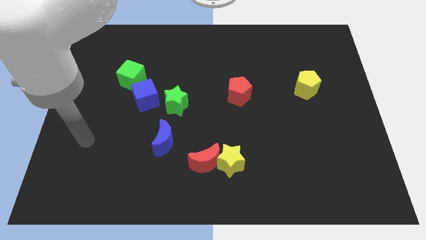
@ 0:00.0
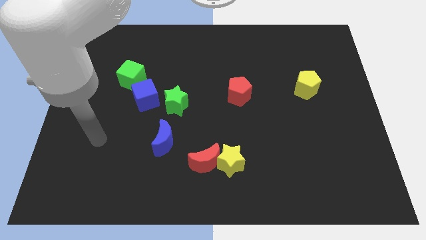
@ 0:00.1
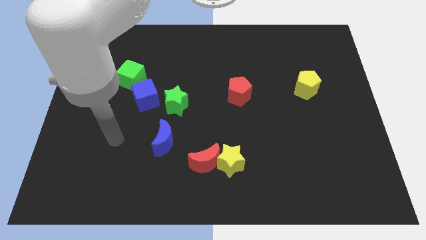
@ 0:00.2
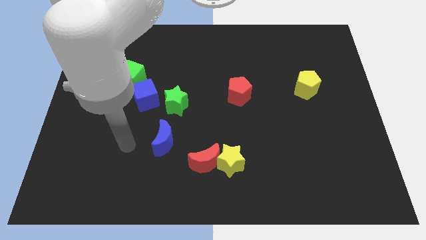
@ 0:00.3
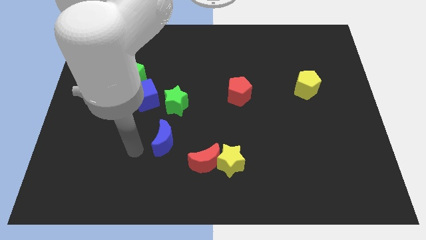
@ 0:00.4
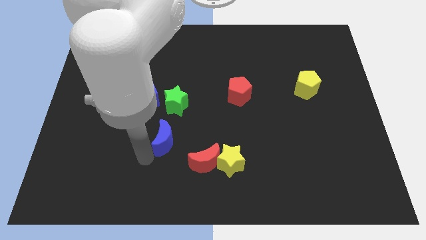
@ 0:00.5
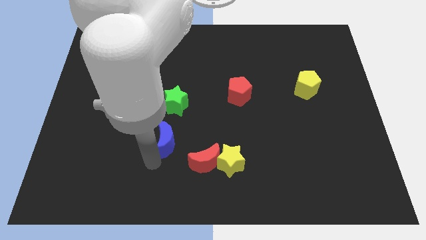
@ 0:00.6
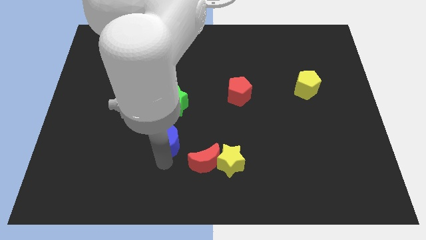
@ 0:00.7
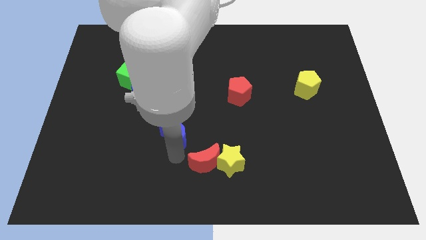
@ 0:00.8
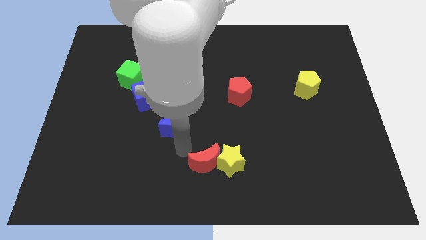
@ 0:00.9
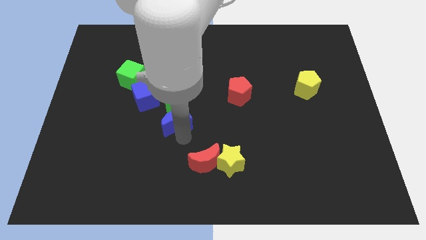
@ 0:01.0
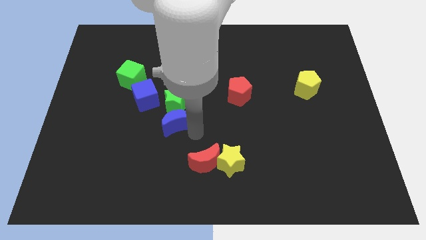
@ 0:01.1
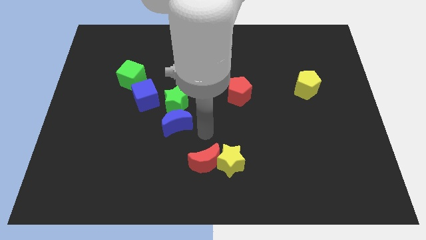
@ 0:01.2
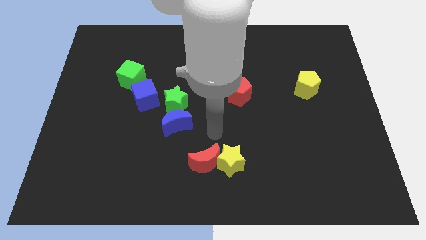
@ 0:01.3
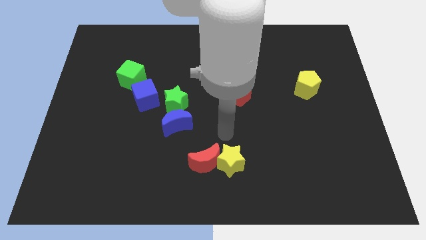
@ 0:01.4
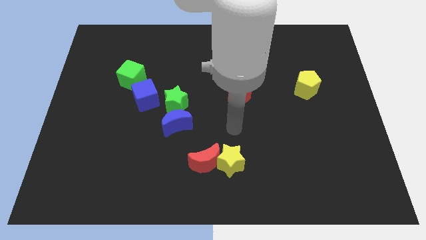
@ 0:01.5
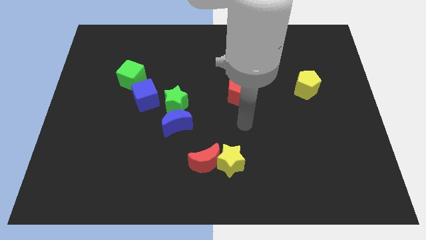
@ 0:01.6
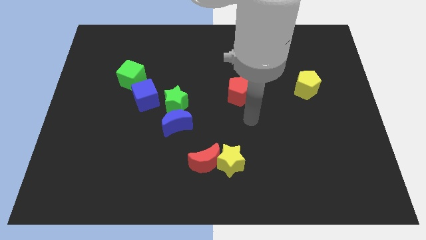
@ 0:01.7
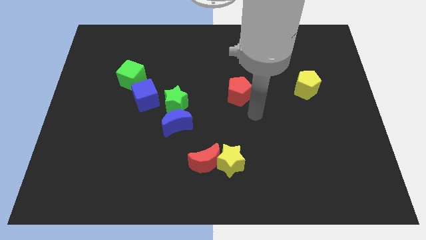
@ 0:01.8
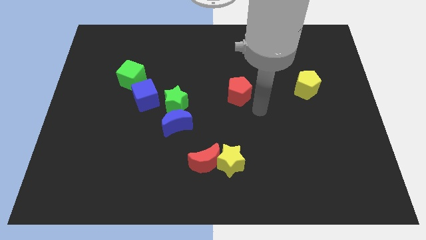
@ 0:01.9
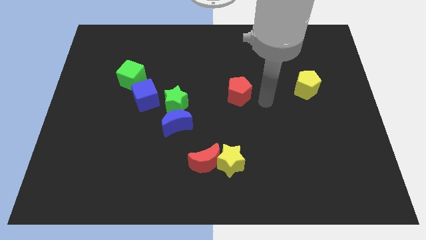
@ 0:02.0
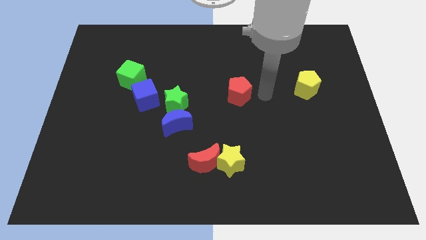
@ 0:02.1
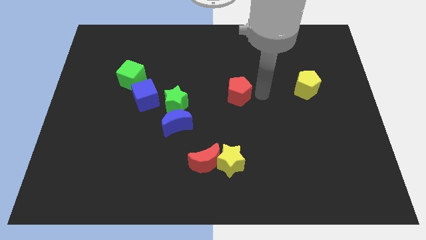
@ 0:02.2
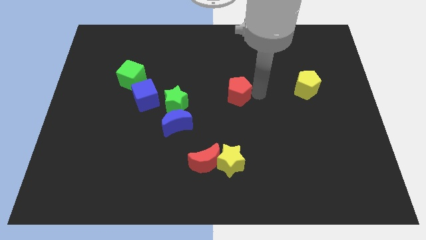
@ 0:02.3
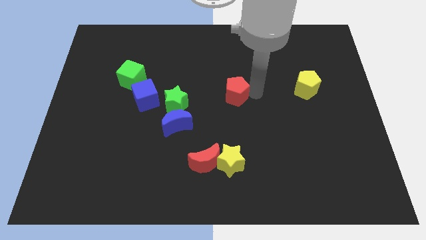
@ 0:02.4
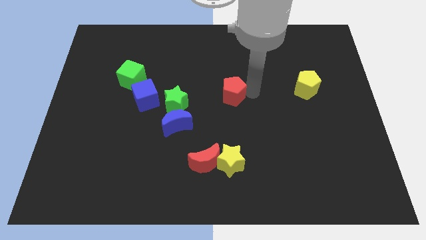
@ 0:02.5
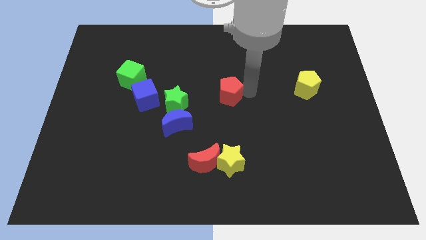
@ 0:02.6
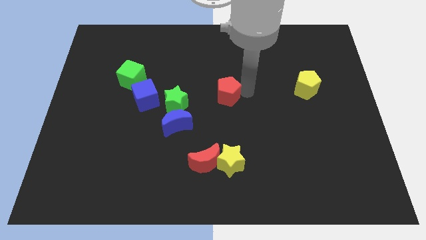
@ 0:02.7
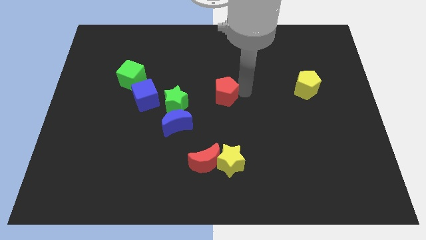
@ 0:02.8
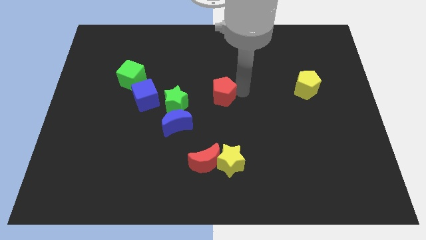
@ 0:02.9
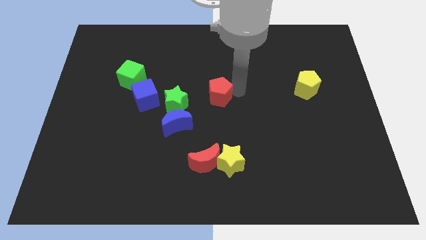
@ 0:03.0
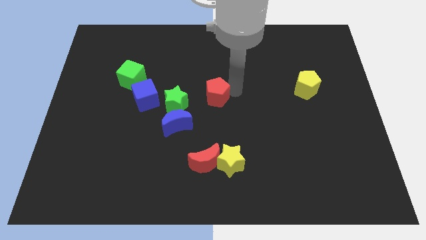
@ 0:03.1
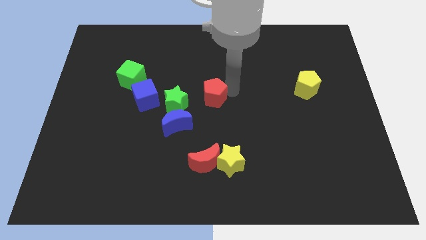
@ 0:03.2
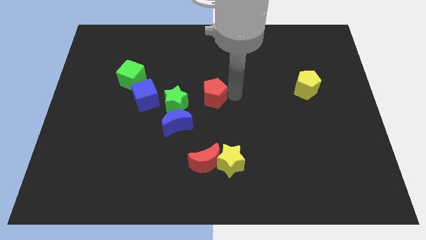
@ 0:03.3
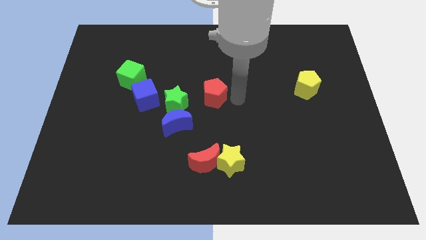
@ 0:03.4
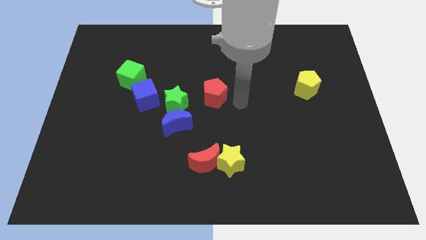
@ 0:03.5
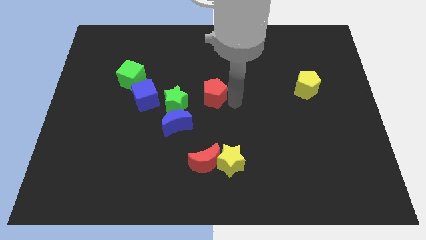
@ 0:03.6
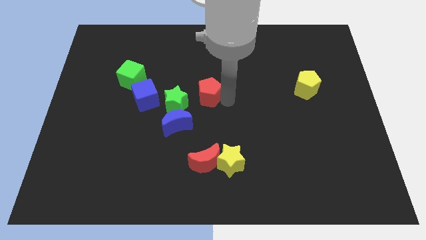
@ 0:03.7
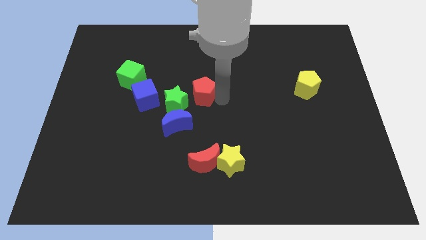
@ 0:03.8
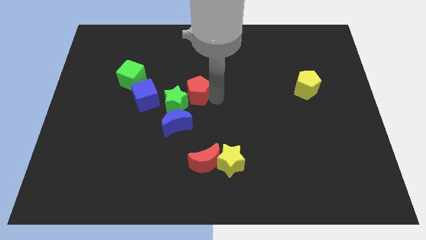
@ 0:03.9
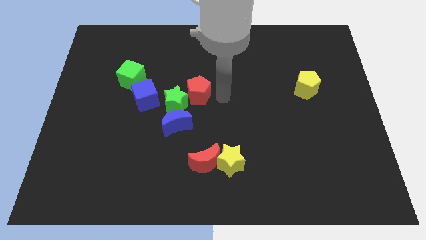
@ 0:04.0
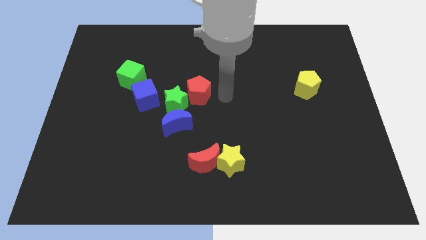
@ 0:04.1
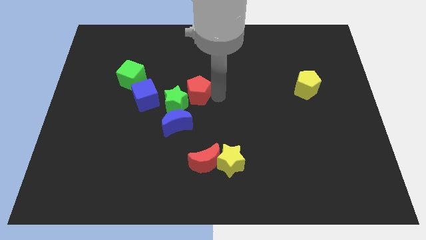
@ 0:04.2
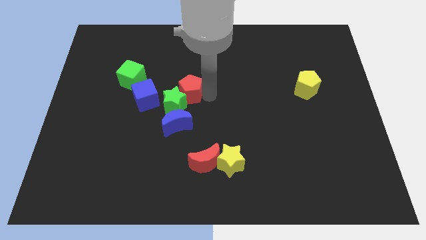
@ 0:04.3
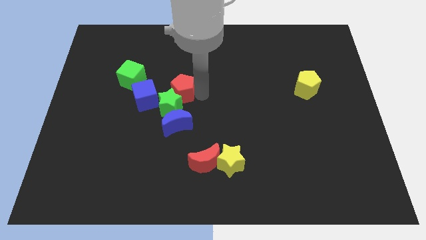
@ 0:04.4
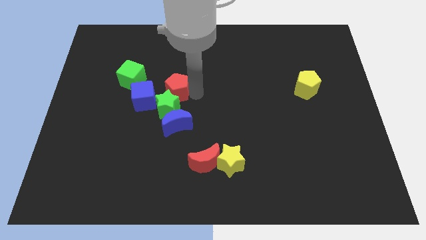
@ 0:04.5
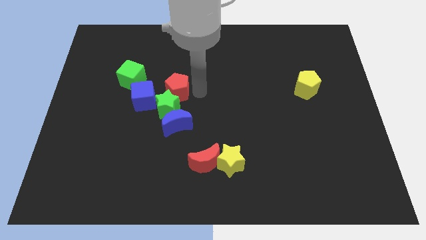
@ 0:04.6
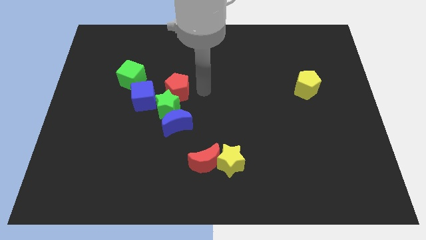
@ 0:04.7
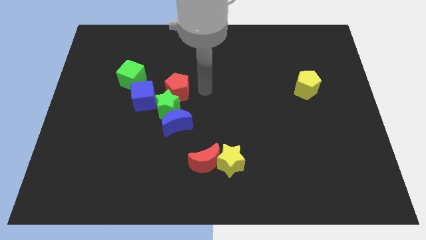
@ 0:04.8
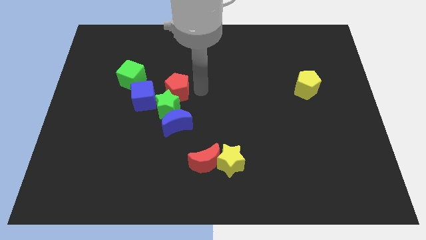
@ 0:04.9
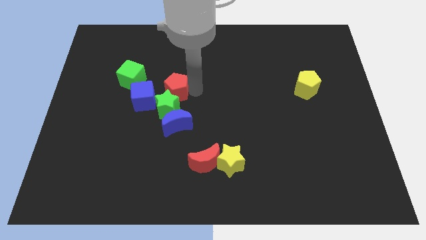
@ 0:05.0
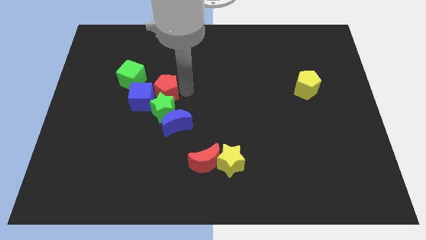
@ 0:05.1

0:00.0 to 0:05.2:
slide the red pentagon towards the blue cube

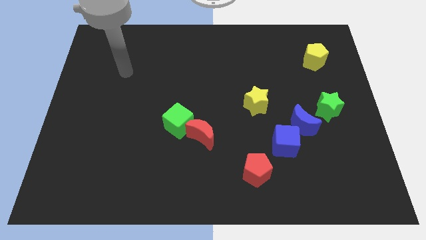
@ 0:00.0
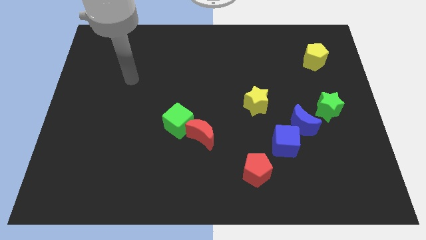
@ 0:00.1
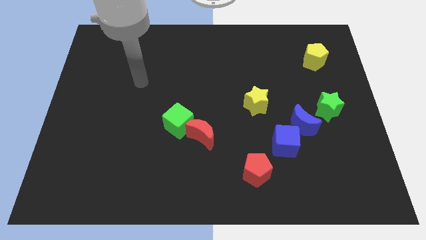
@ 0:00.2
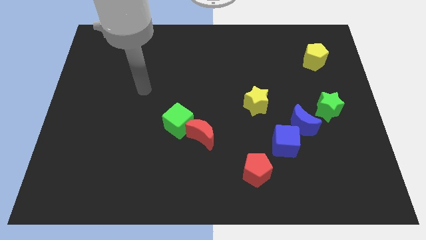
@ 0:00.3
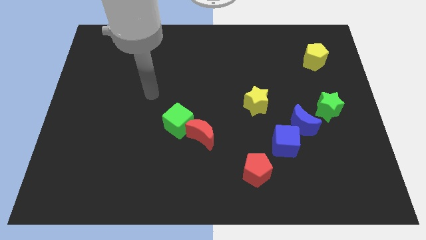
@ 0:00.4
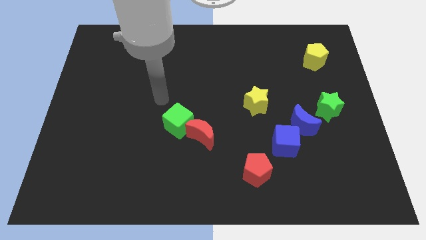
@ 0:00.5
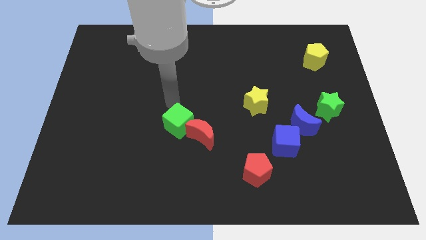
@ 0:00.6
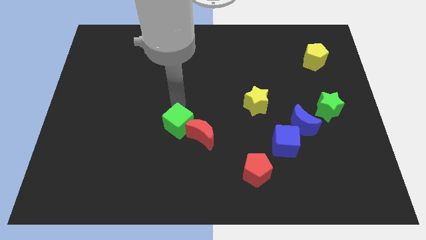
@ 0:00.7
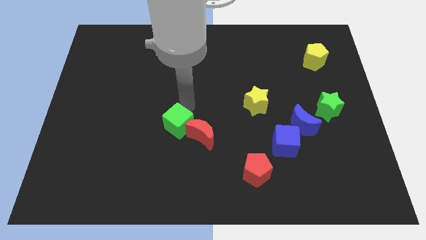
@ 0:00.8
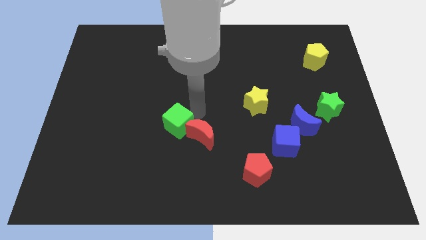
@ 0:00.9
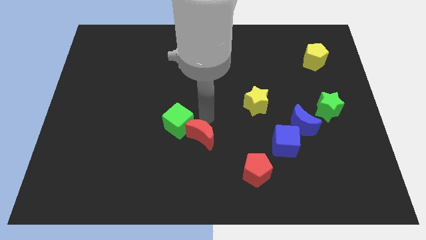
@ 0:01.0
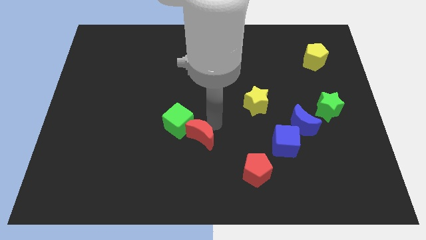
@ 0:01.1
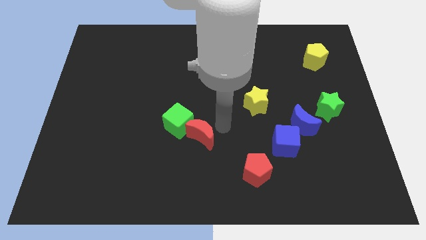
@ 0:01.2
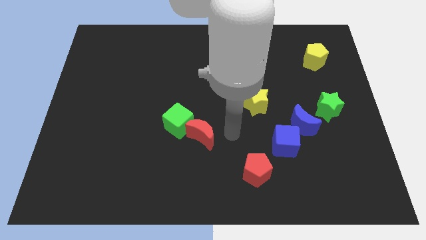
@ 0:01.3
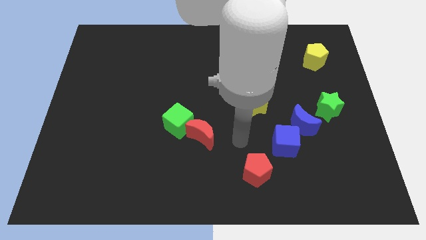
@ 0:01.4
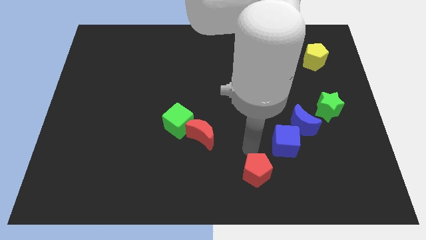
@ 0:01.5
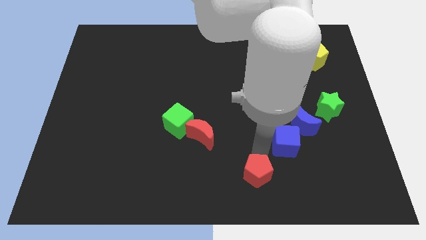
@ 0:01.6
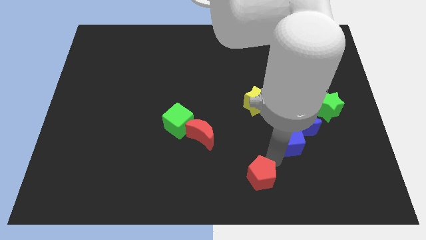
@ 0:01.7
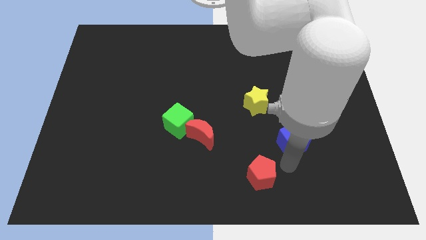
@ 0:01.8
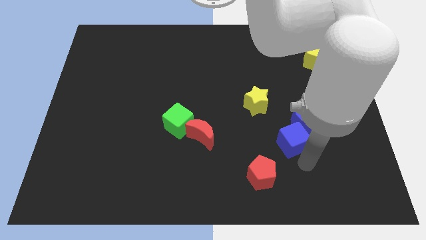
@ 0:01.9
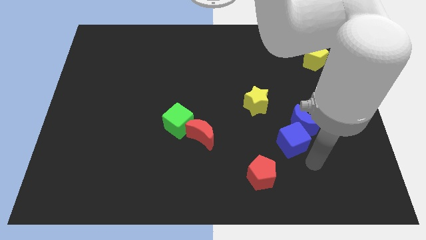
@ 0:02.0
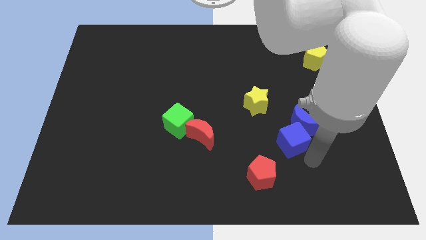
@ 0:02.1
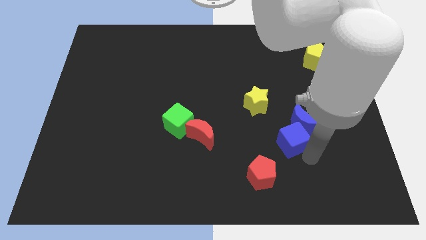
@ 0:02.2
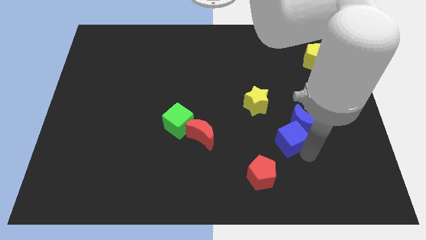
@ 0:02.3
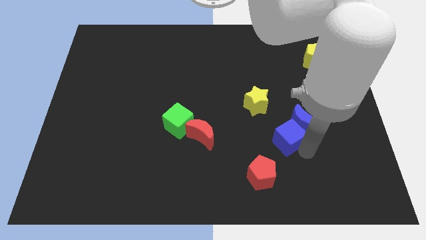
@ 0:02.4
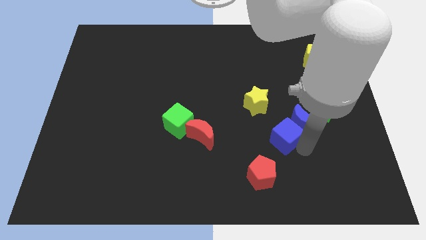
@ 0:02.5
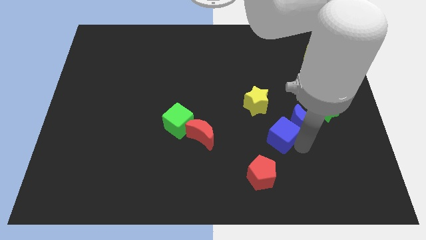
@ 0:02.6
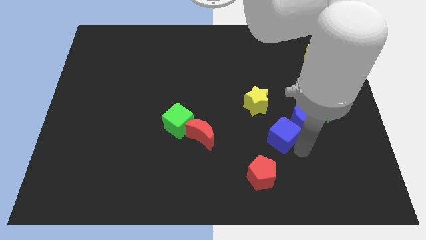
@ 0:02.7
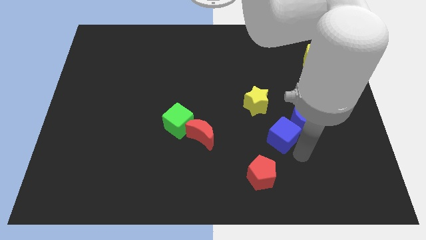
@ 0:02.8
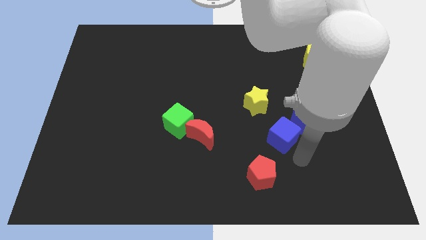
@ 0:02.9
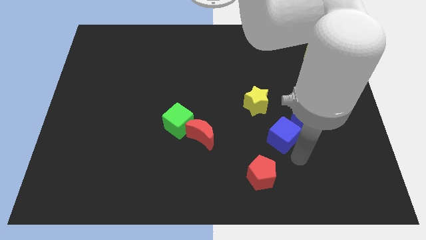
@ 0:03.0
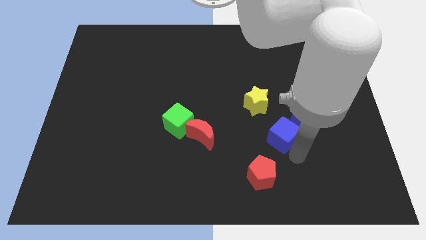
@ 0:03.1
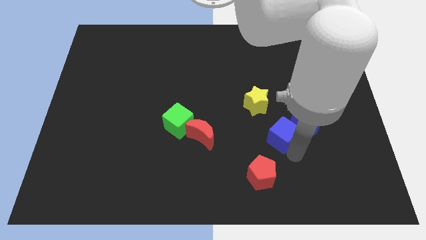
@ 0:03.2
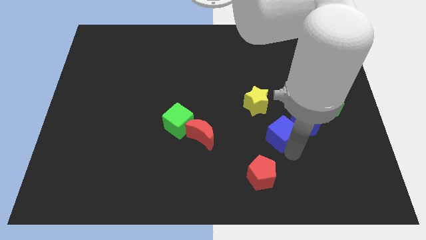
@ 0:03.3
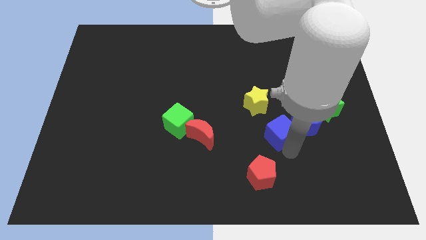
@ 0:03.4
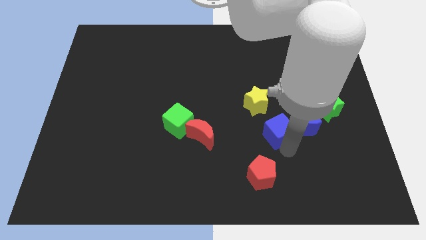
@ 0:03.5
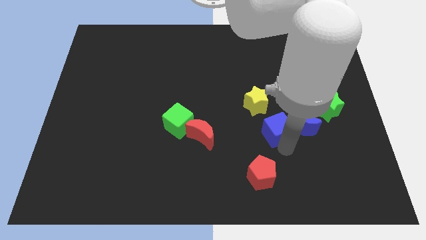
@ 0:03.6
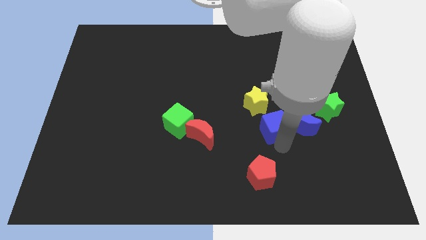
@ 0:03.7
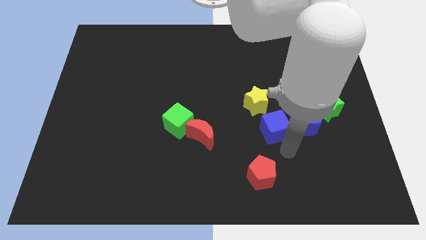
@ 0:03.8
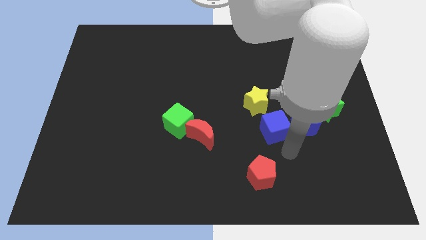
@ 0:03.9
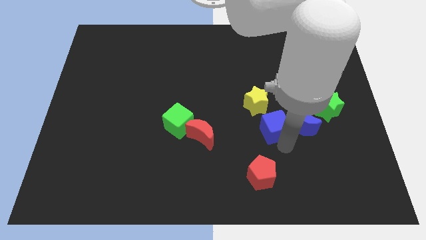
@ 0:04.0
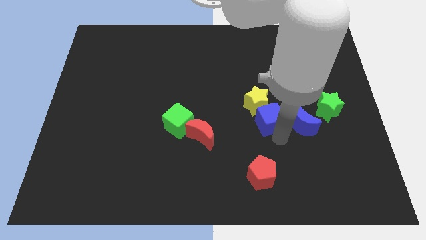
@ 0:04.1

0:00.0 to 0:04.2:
slide the blue cube towards the yellow star
